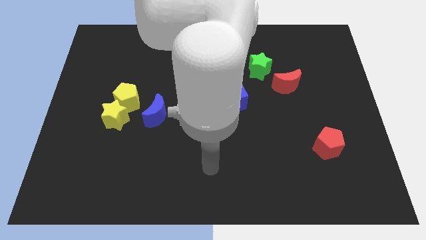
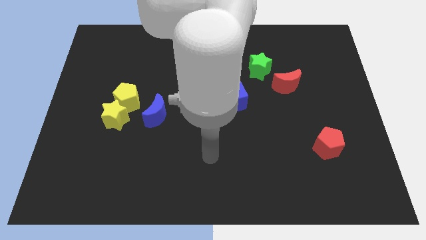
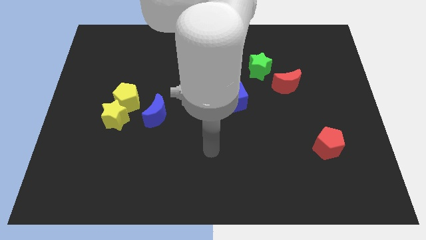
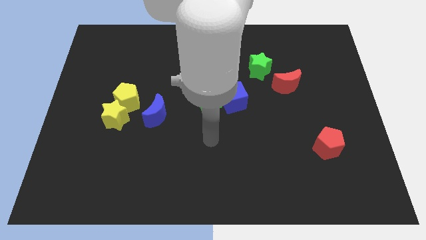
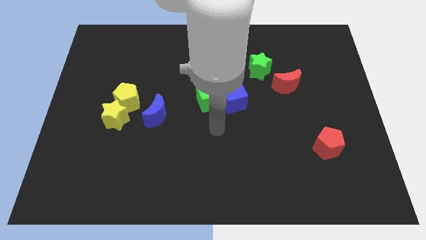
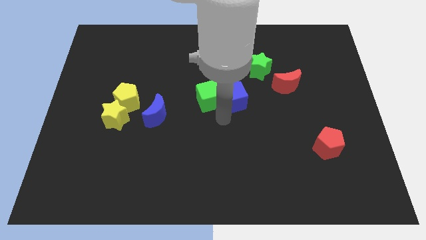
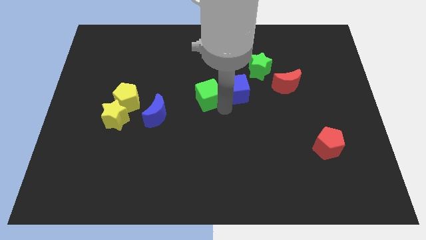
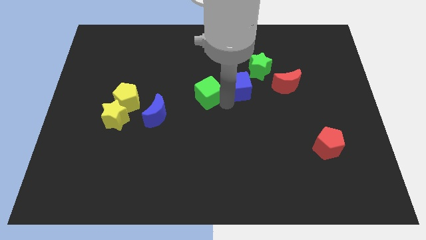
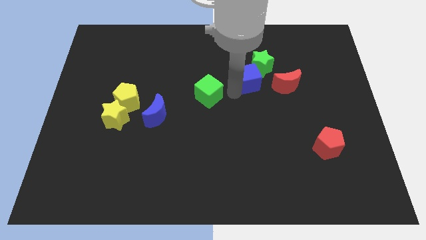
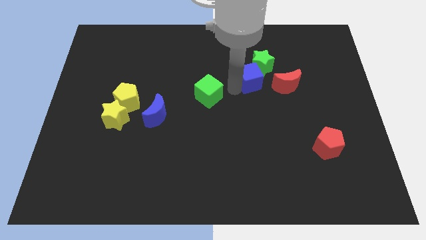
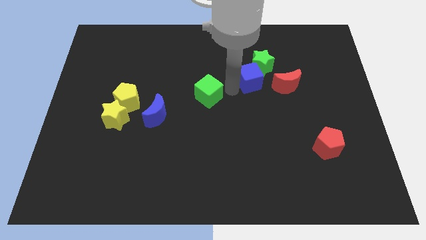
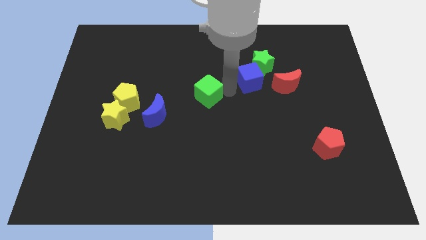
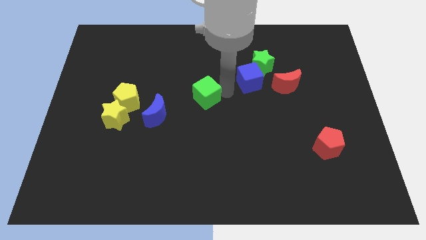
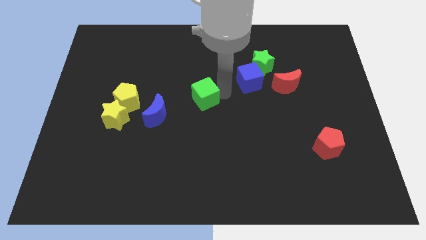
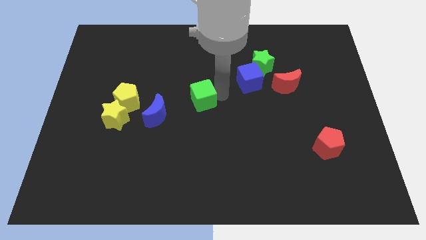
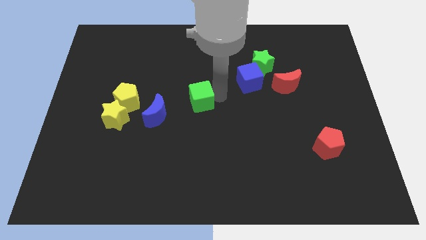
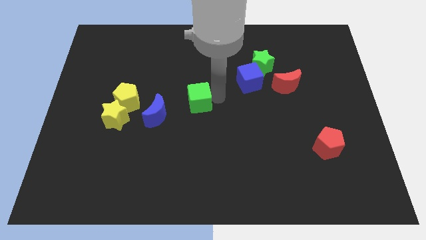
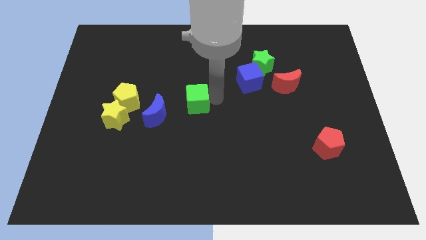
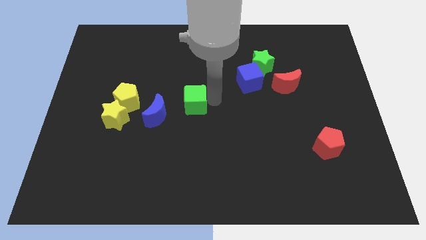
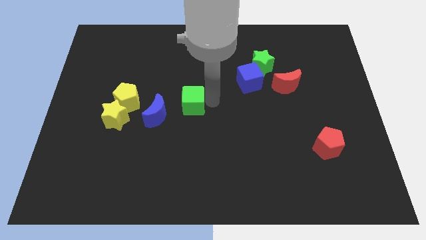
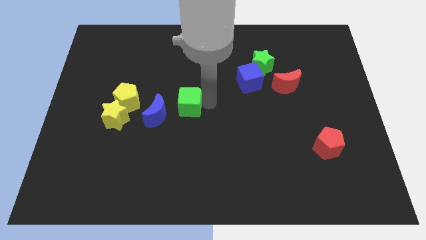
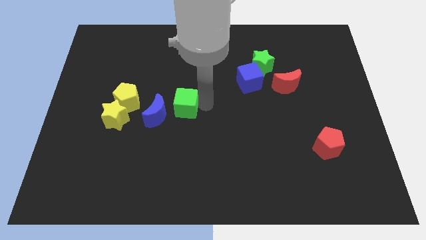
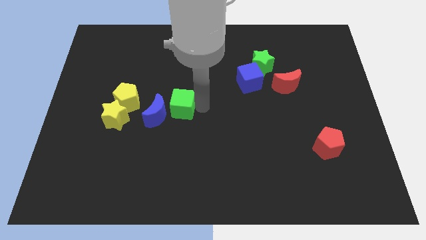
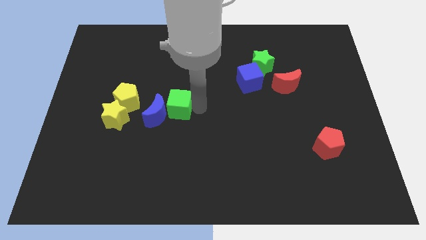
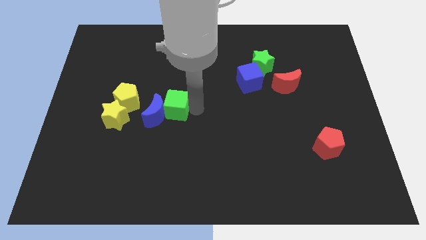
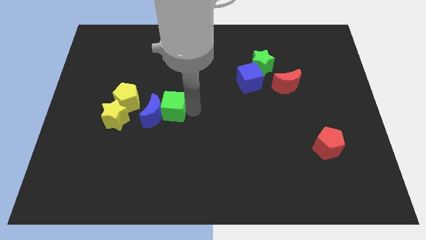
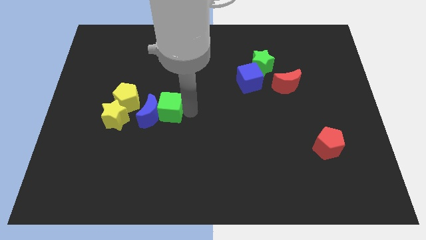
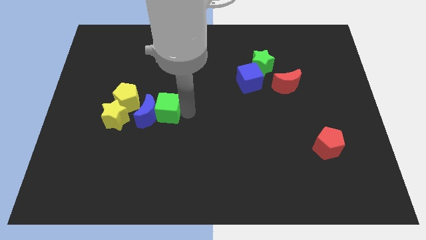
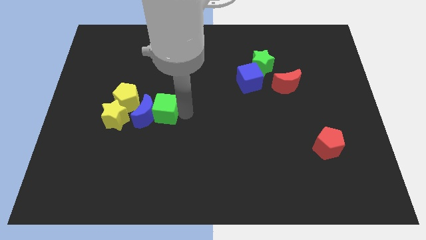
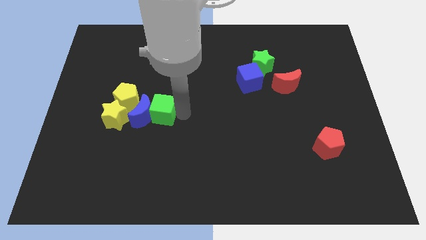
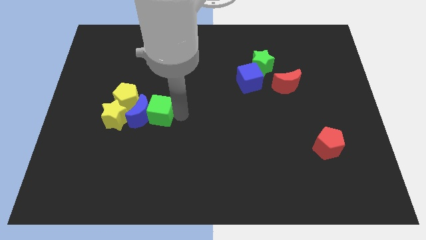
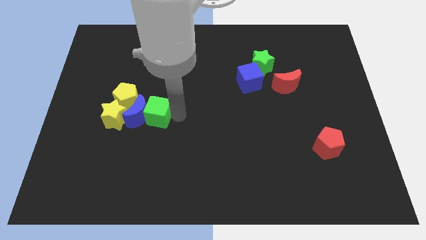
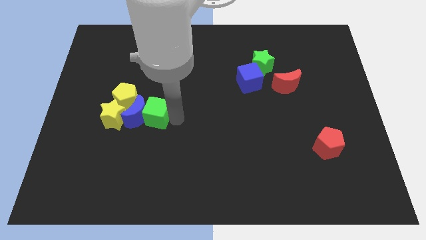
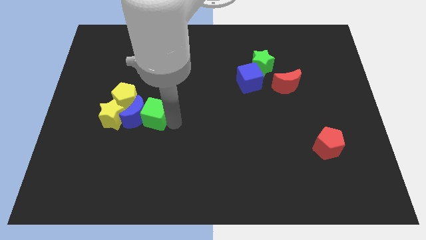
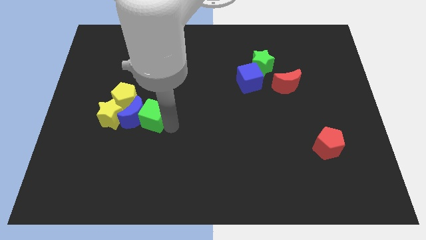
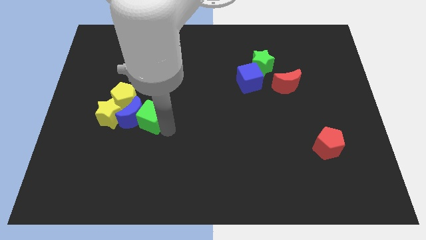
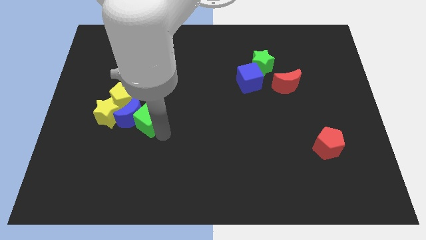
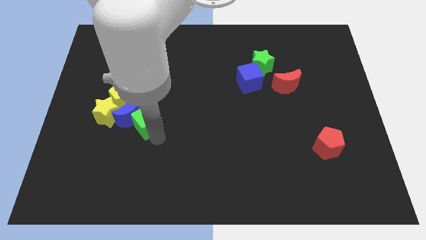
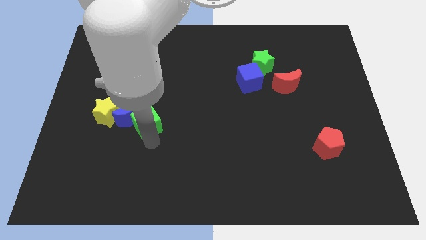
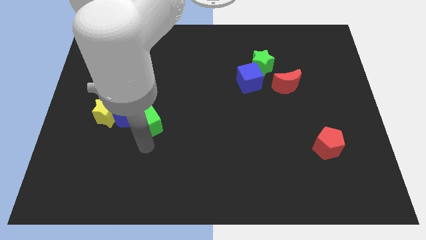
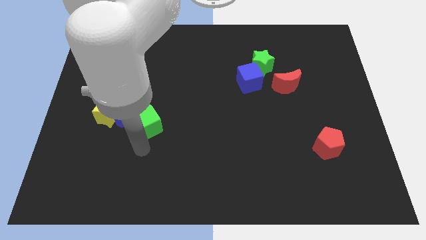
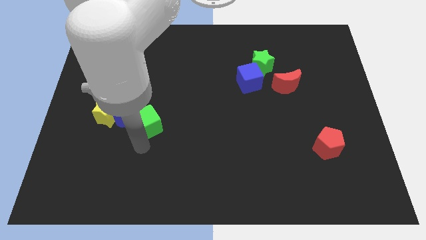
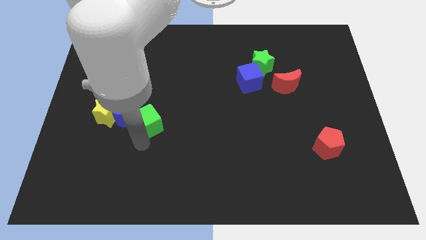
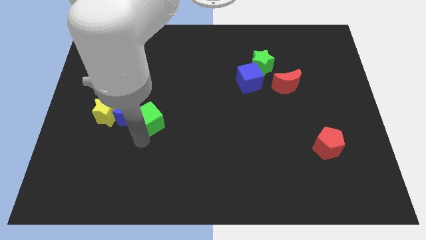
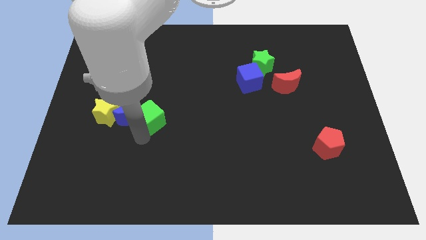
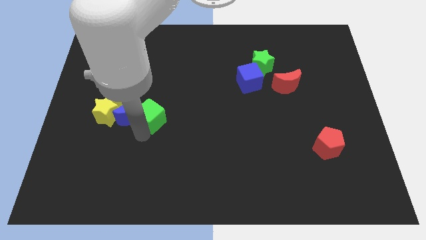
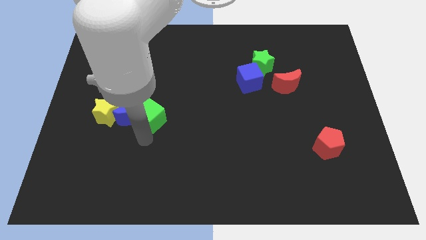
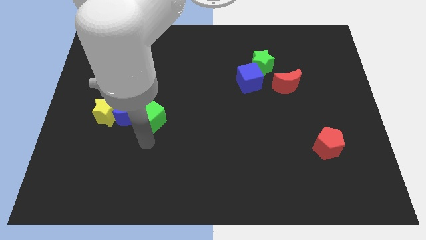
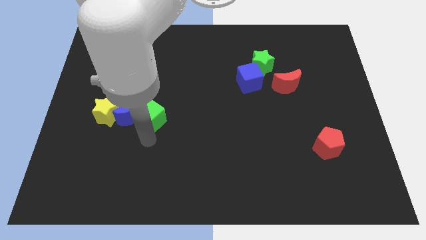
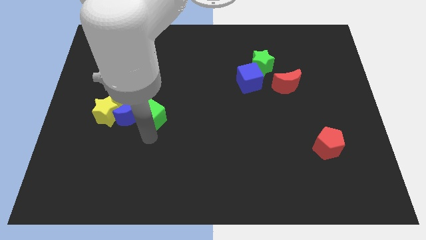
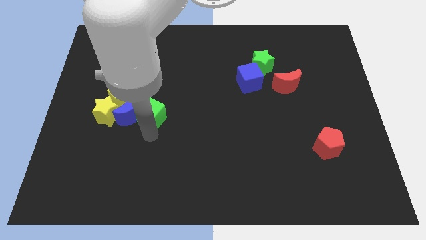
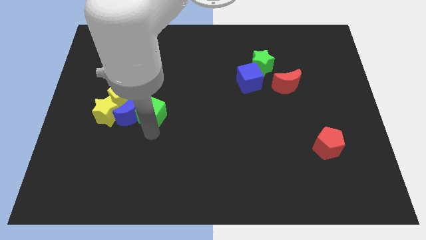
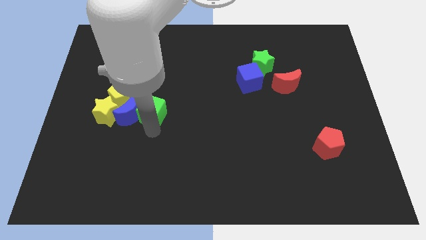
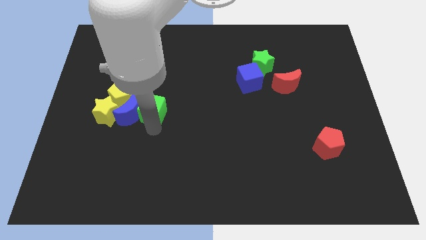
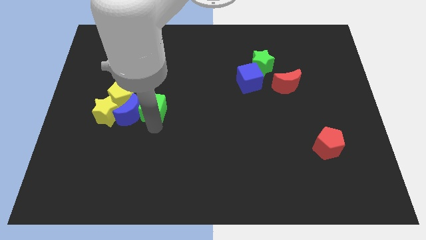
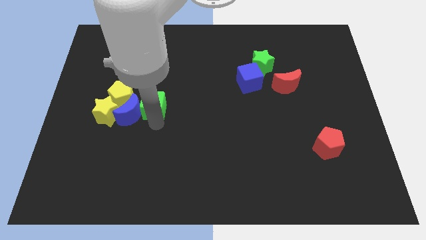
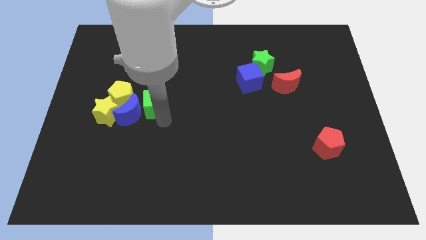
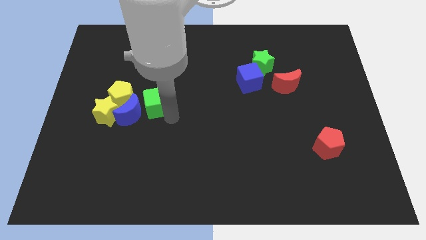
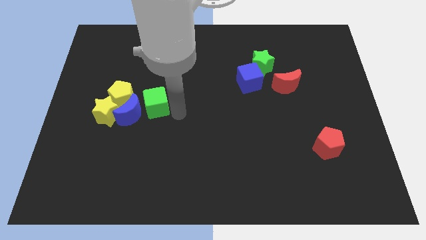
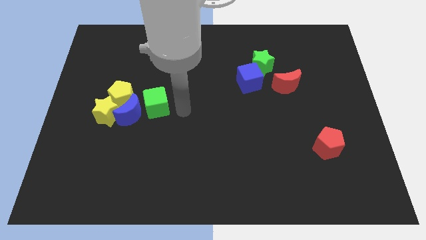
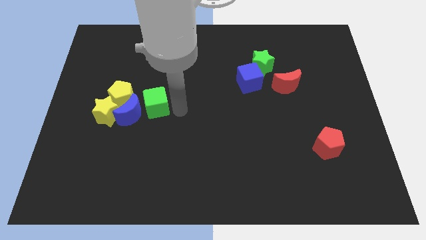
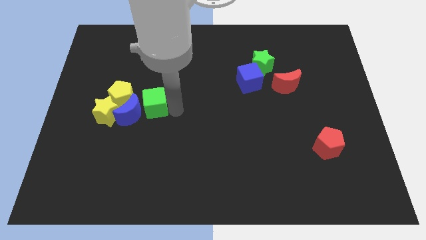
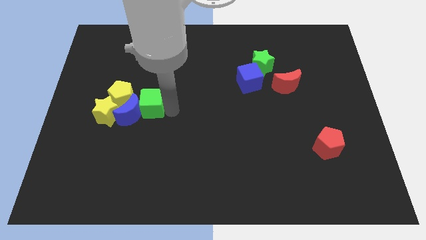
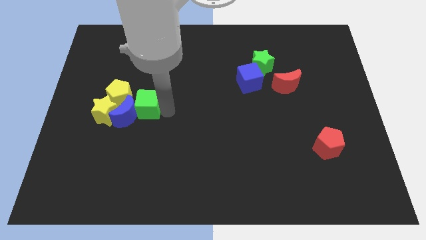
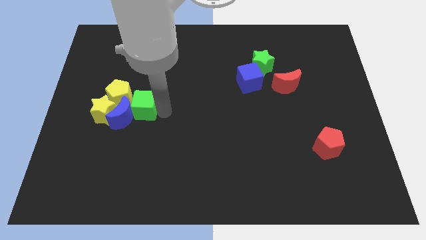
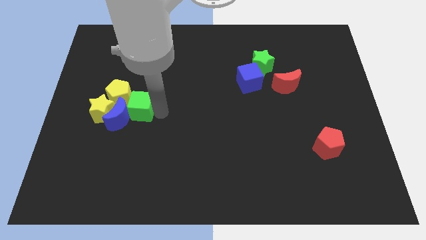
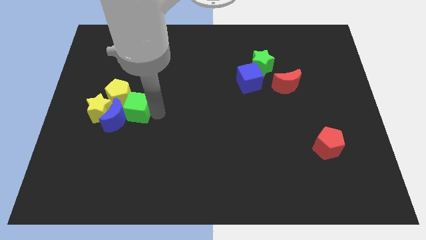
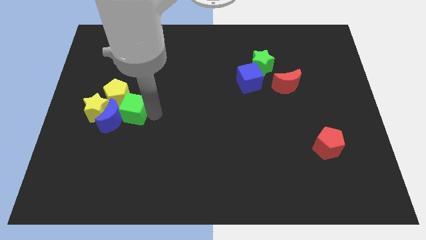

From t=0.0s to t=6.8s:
move the green cube next to the yellow pentagon

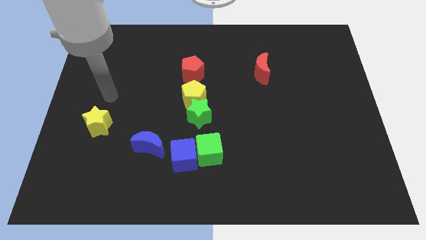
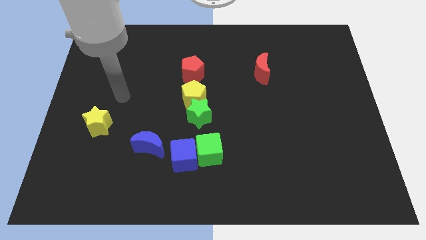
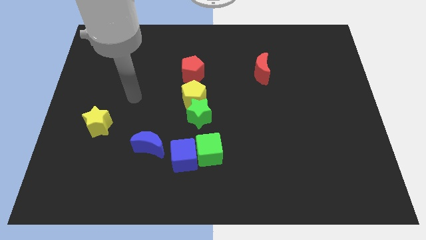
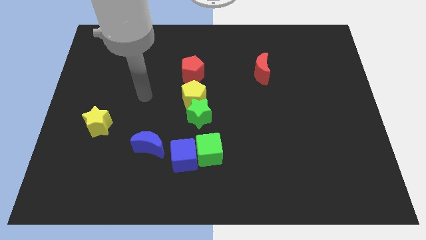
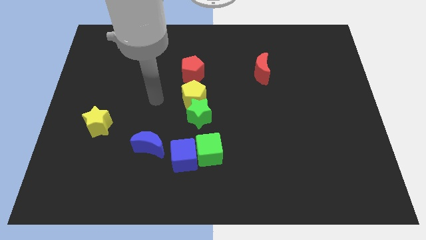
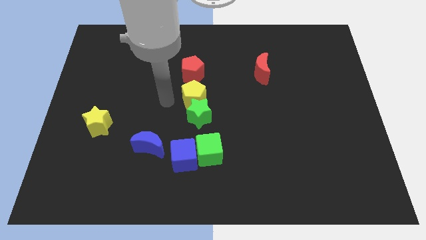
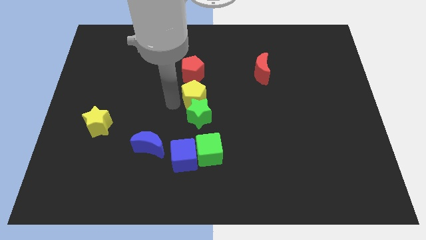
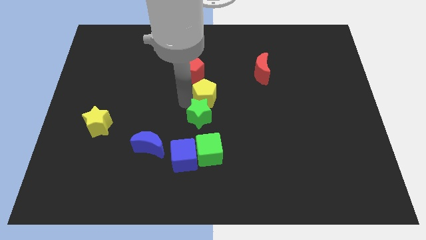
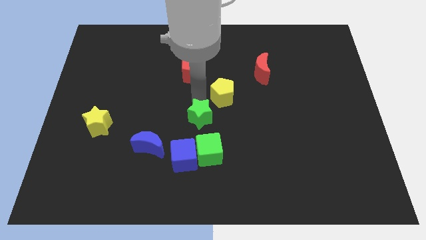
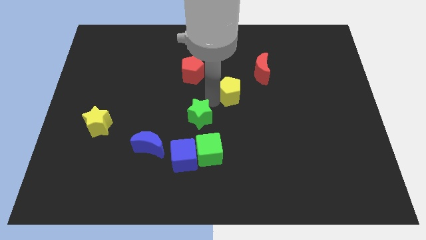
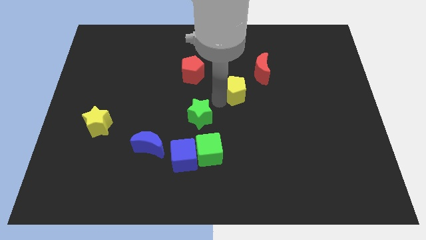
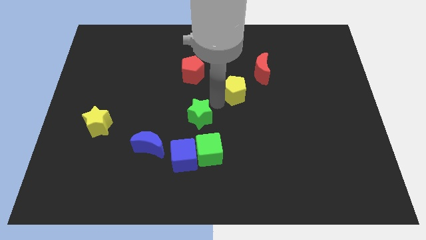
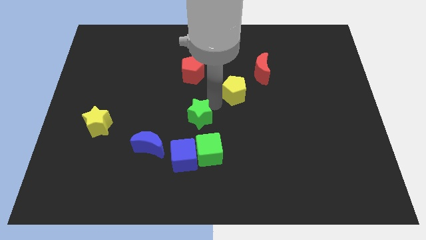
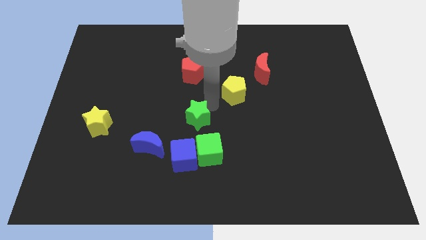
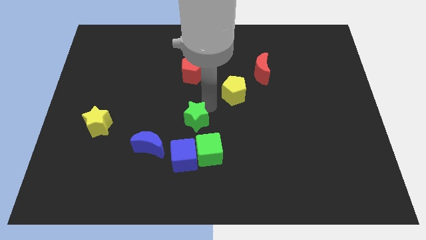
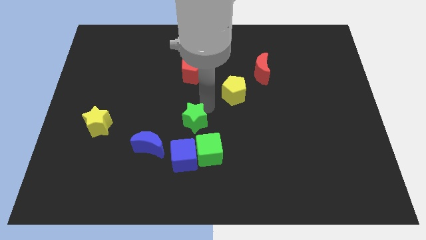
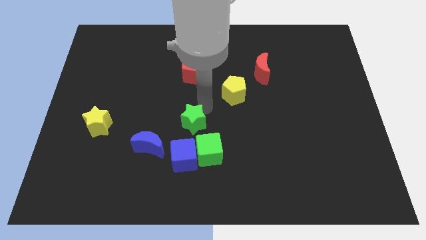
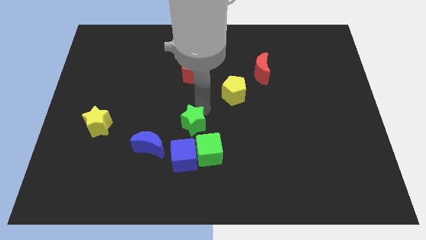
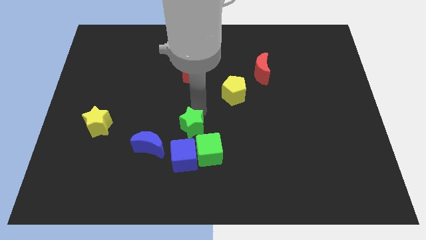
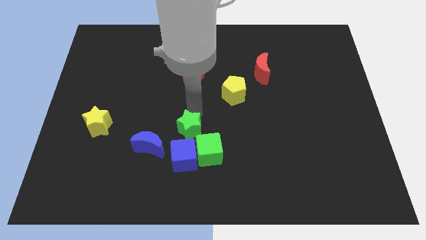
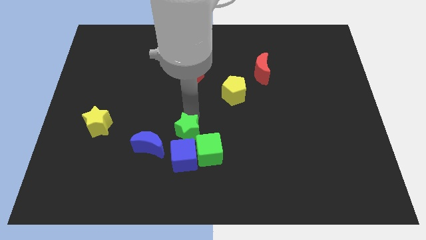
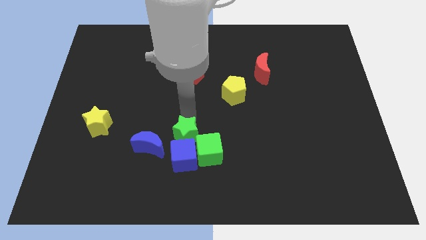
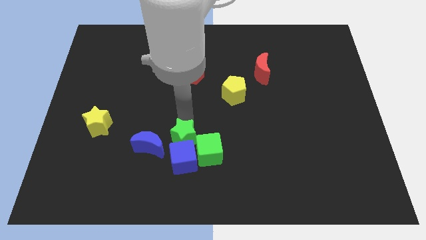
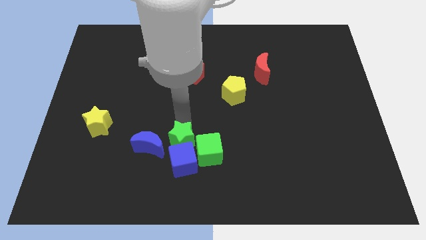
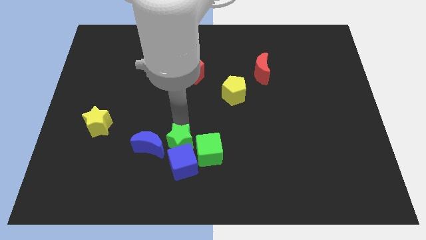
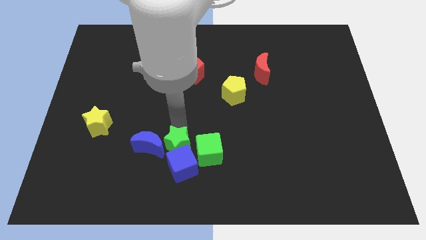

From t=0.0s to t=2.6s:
slide the green star towards the blue moon
